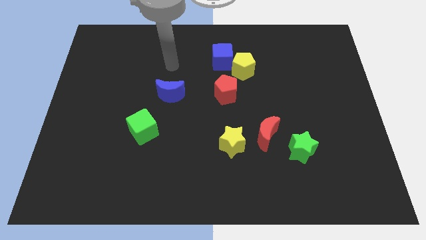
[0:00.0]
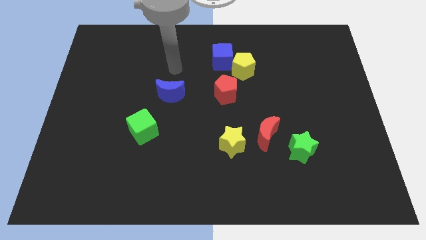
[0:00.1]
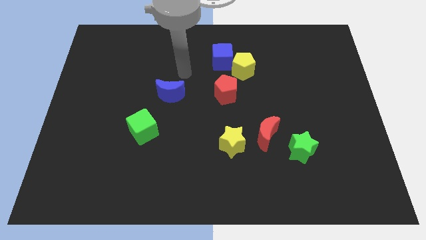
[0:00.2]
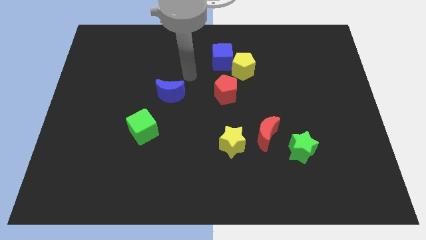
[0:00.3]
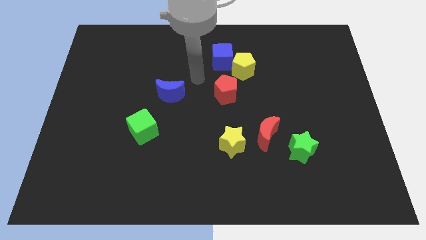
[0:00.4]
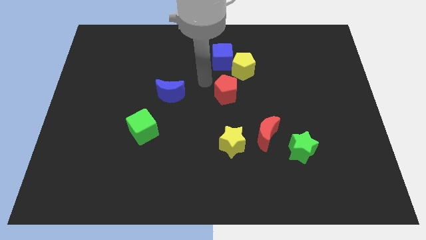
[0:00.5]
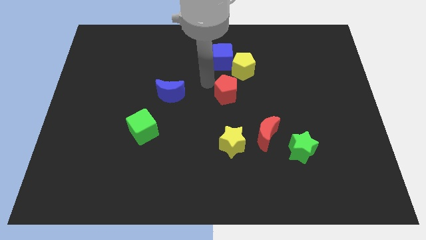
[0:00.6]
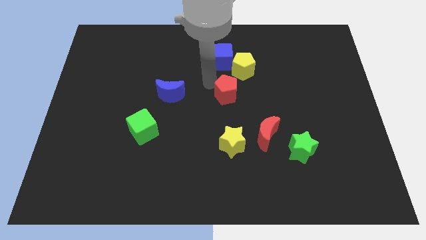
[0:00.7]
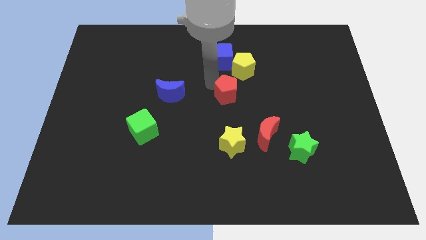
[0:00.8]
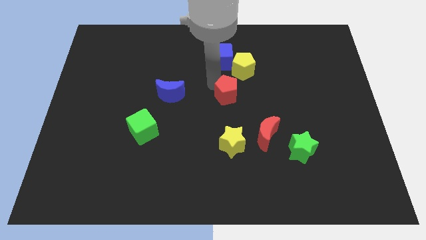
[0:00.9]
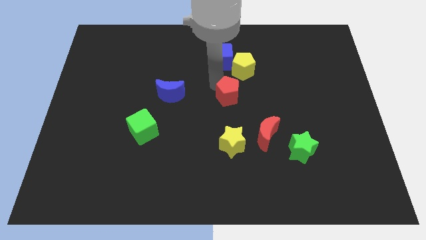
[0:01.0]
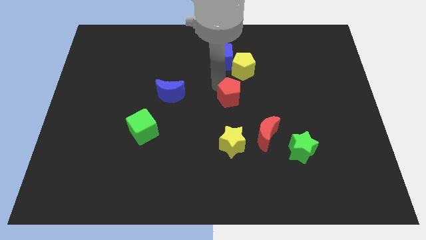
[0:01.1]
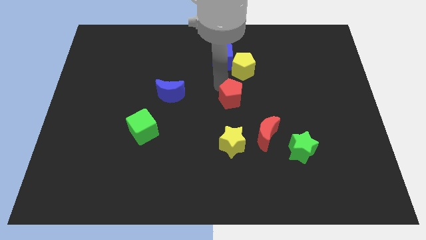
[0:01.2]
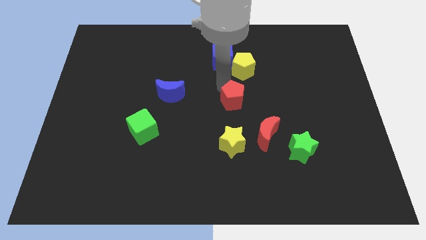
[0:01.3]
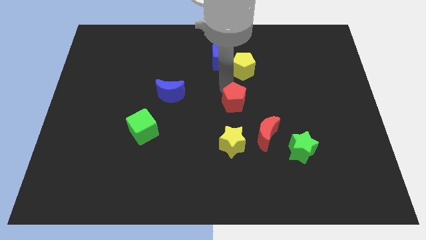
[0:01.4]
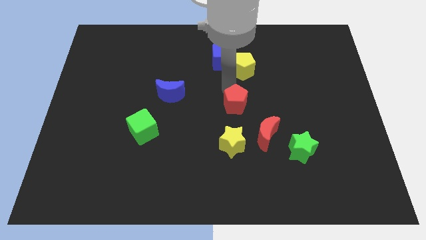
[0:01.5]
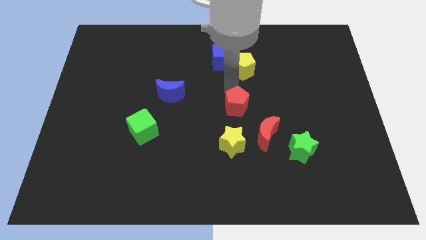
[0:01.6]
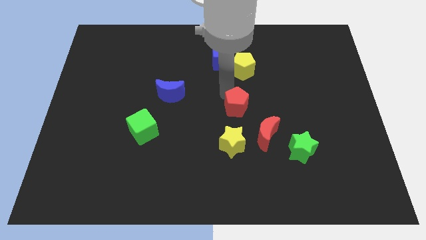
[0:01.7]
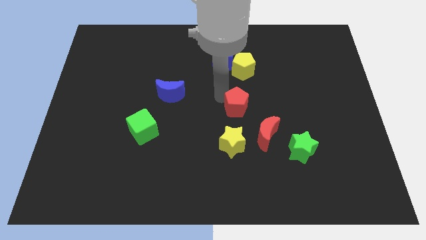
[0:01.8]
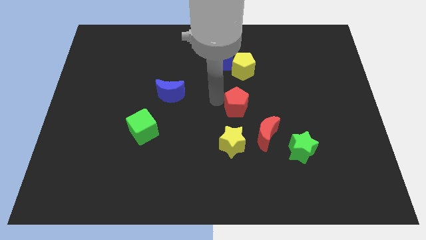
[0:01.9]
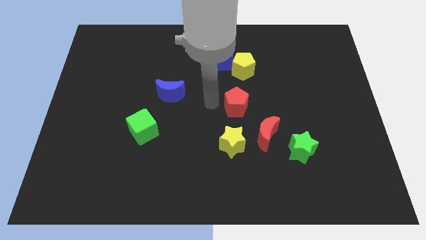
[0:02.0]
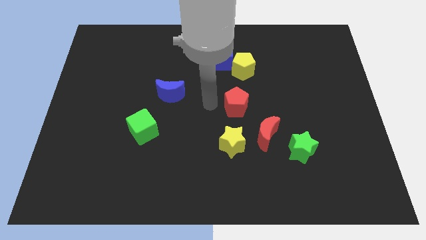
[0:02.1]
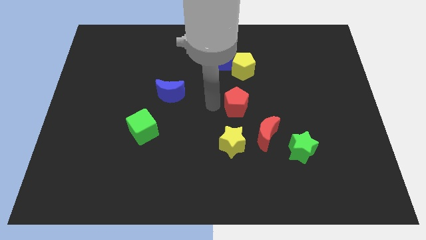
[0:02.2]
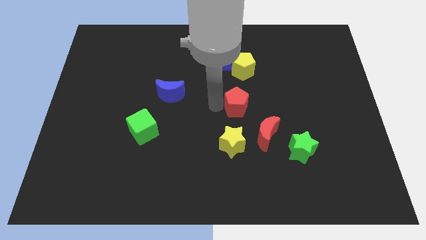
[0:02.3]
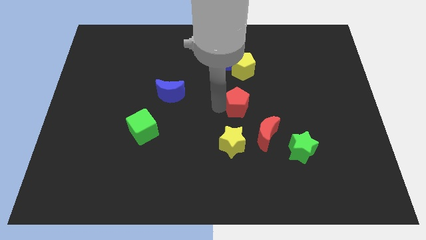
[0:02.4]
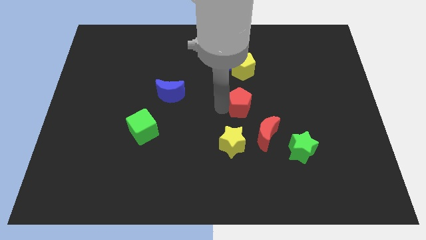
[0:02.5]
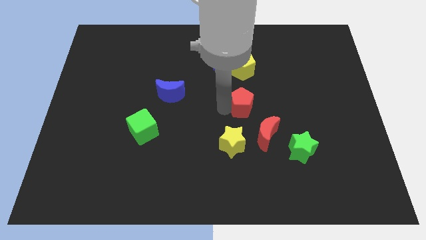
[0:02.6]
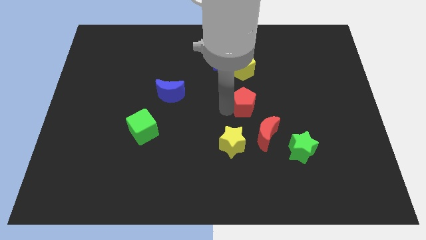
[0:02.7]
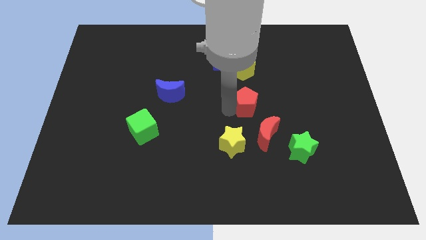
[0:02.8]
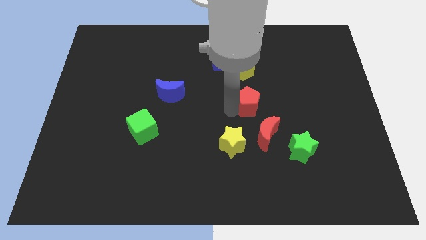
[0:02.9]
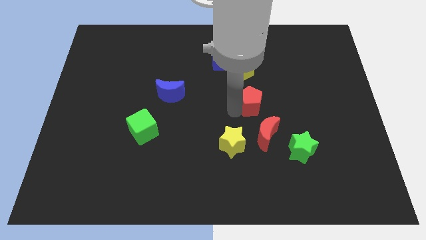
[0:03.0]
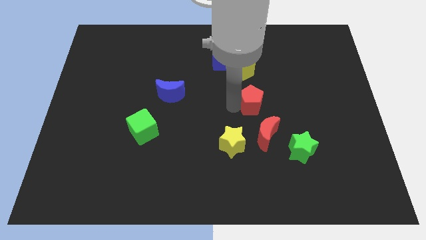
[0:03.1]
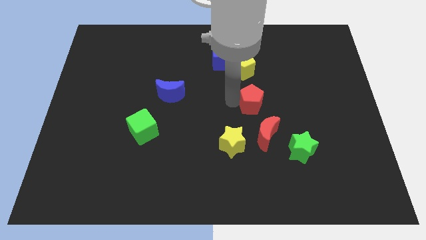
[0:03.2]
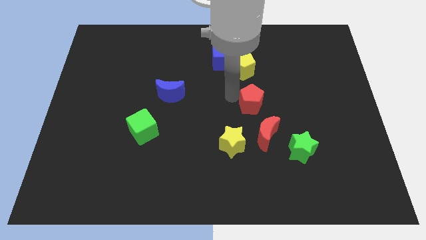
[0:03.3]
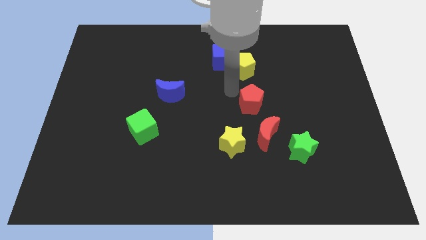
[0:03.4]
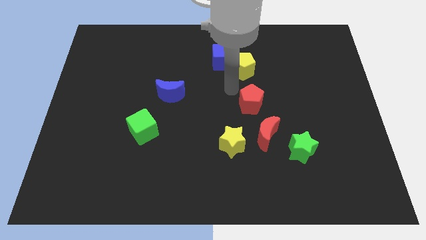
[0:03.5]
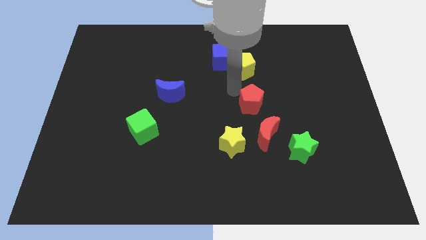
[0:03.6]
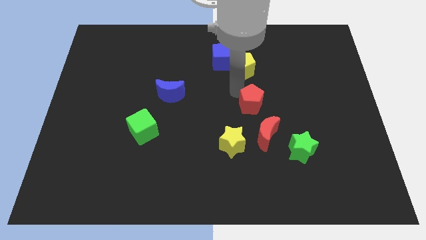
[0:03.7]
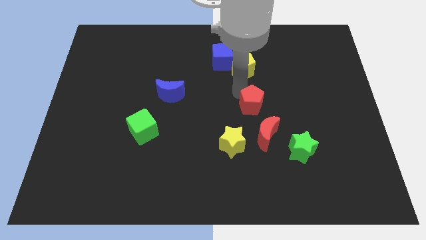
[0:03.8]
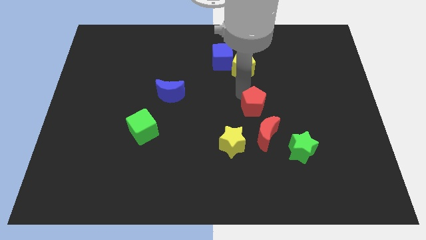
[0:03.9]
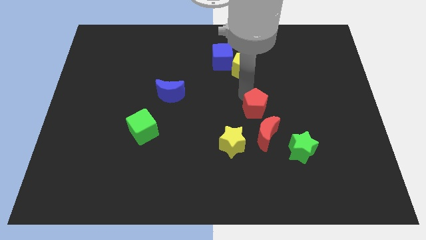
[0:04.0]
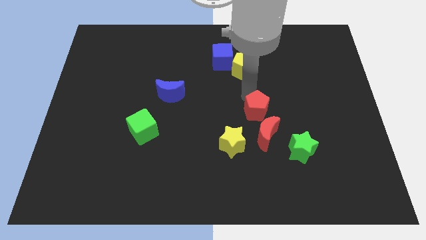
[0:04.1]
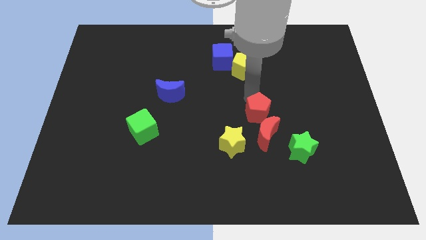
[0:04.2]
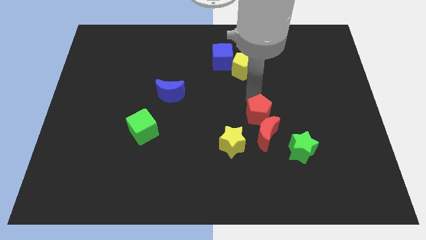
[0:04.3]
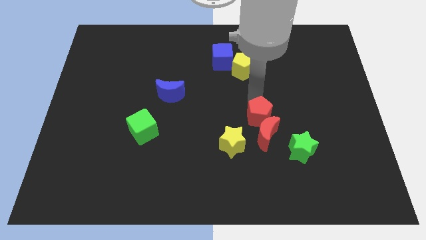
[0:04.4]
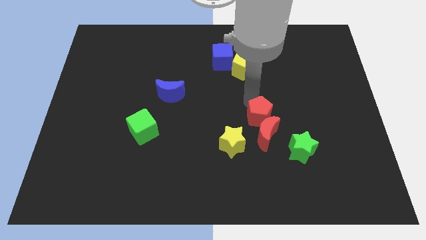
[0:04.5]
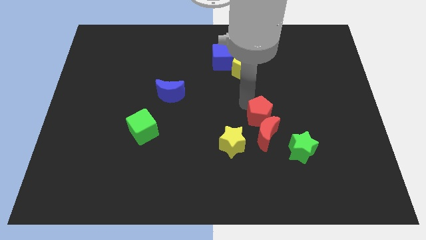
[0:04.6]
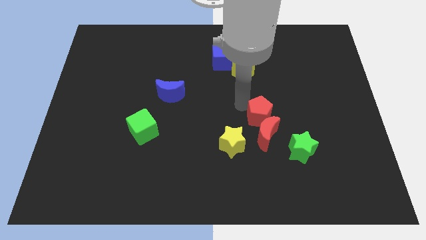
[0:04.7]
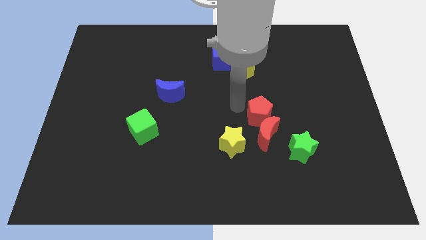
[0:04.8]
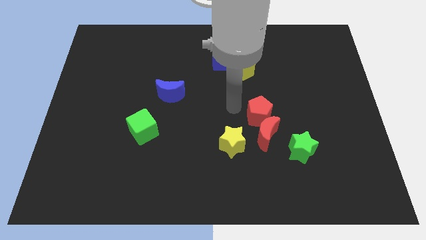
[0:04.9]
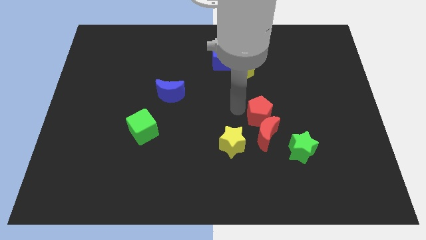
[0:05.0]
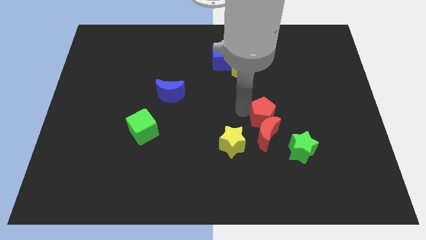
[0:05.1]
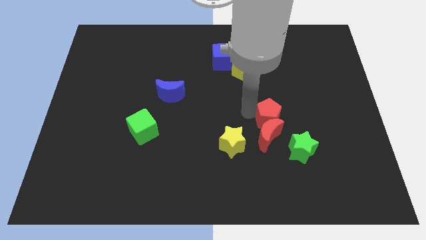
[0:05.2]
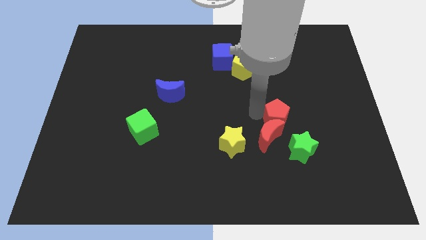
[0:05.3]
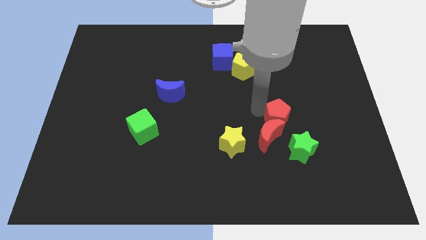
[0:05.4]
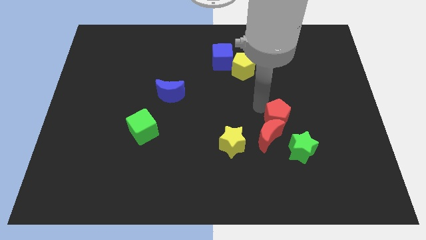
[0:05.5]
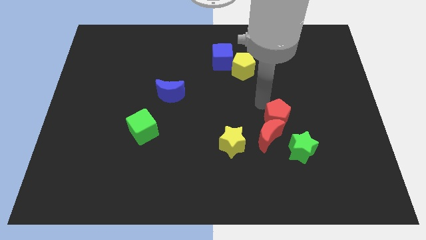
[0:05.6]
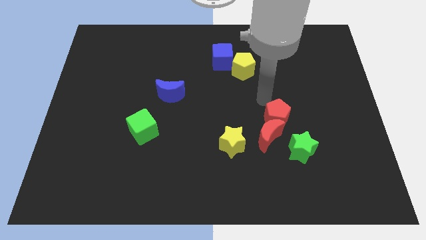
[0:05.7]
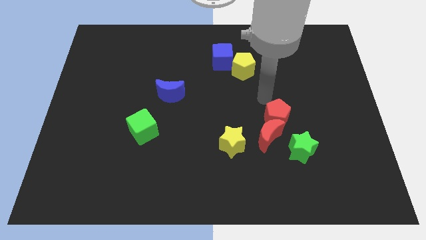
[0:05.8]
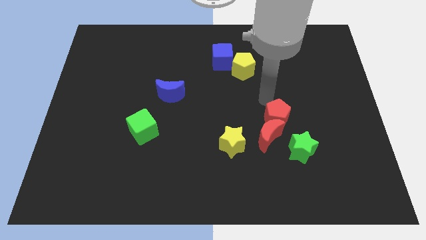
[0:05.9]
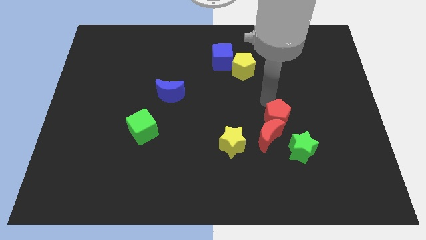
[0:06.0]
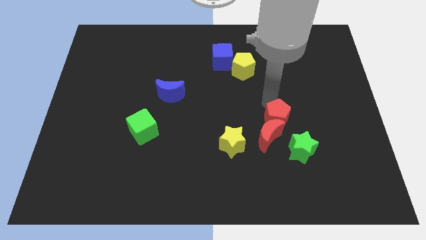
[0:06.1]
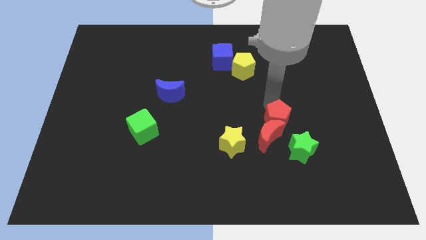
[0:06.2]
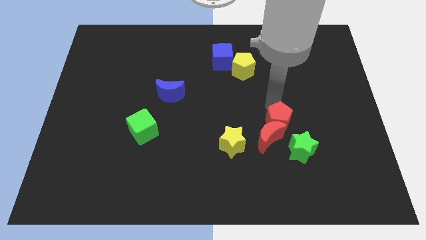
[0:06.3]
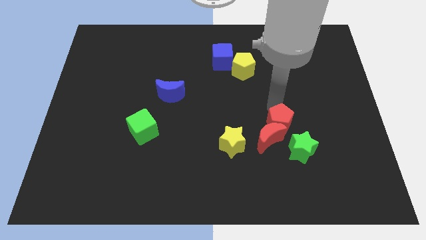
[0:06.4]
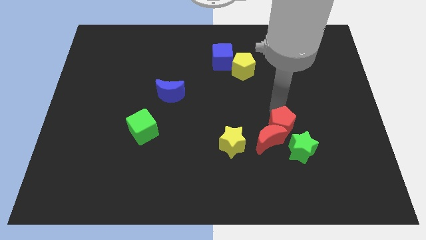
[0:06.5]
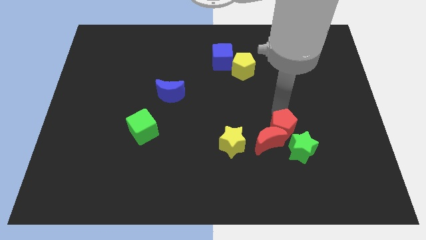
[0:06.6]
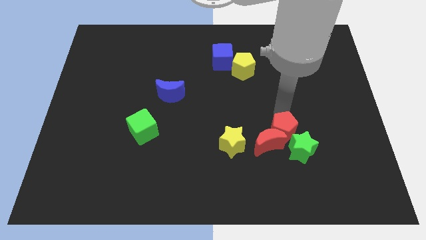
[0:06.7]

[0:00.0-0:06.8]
slide the red pentagon next to the green star
